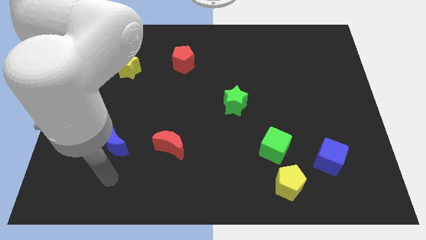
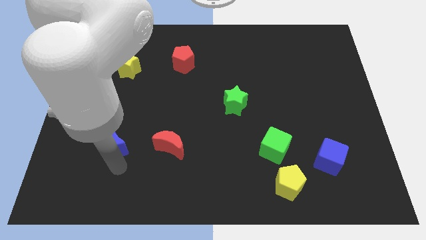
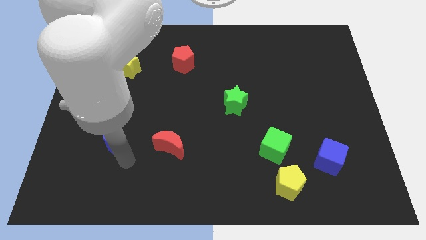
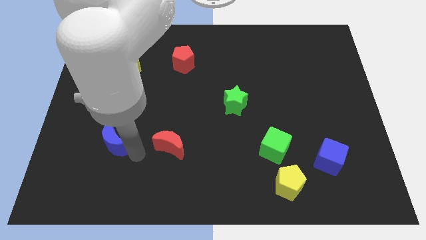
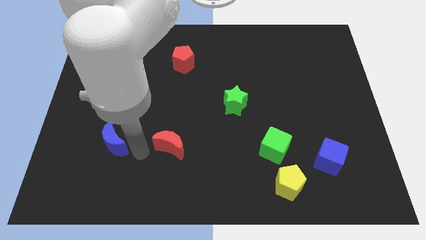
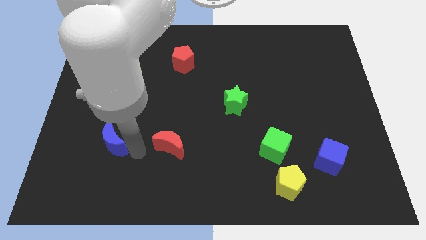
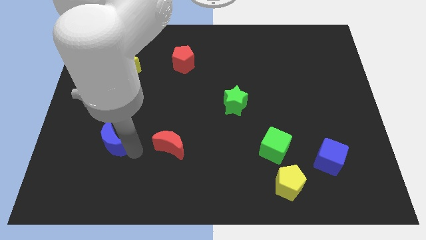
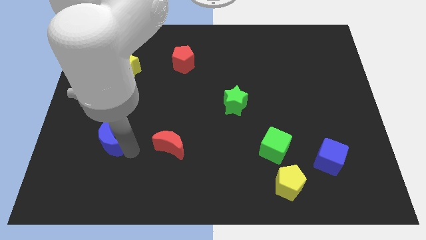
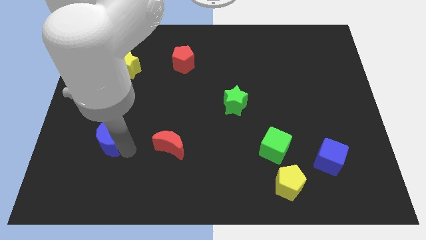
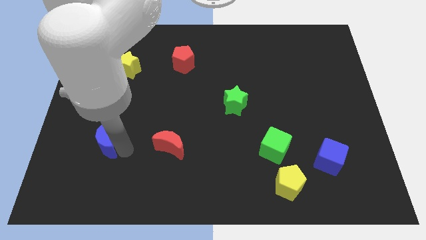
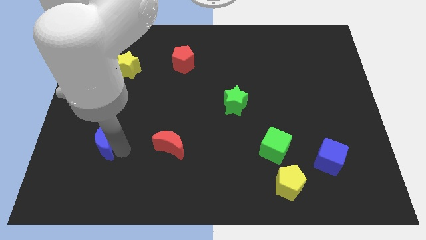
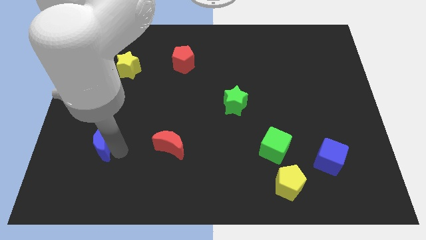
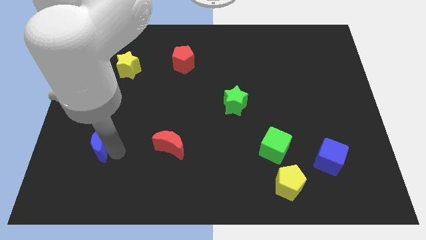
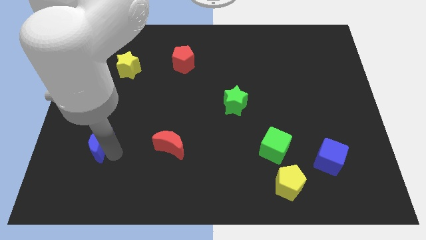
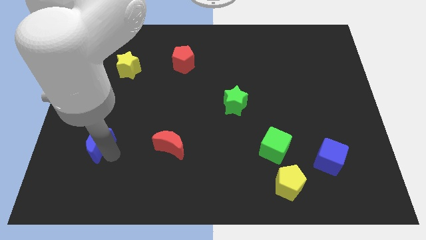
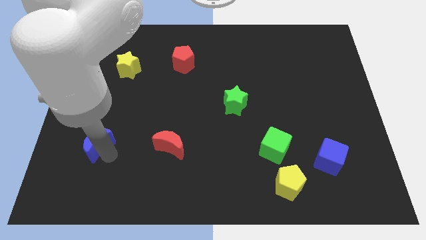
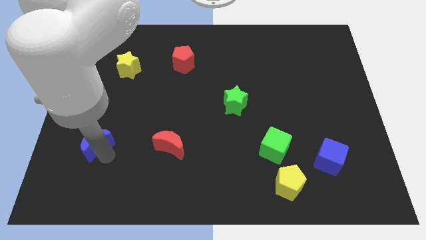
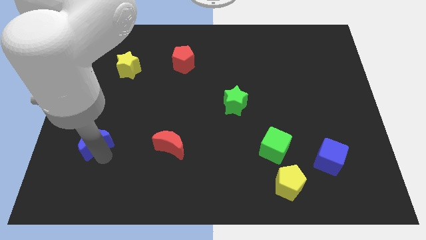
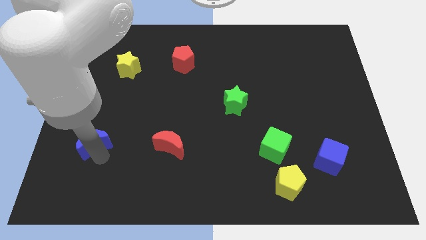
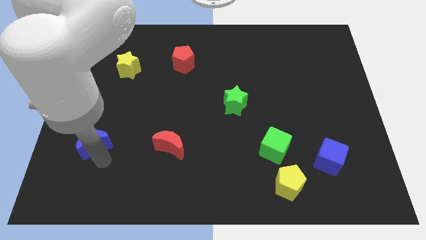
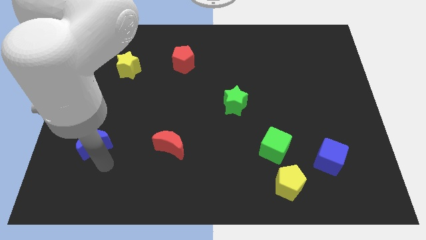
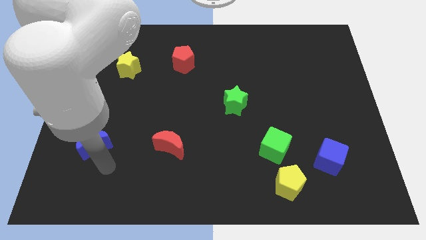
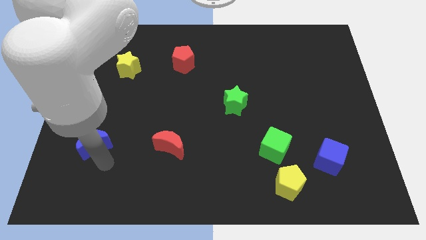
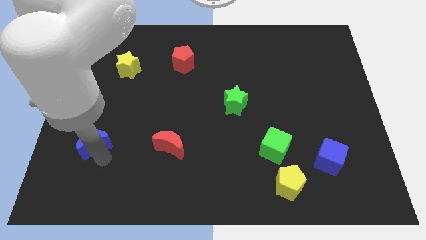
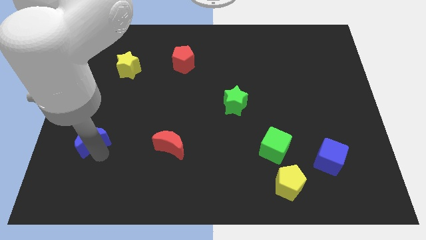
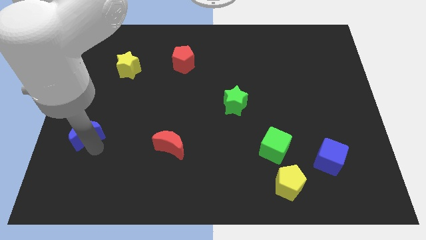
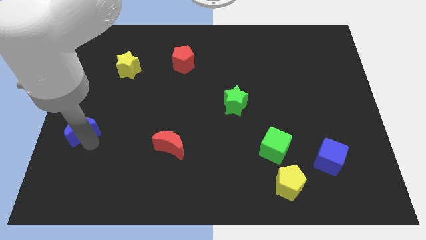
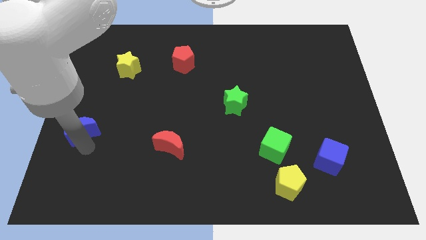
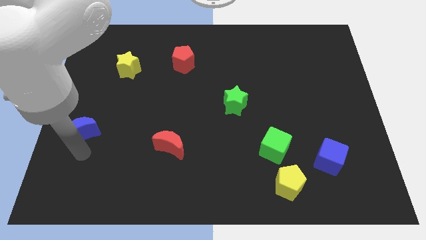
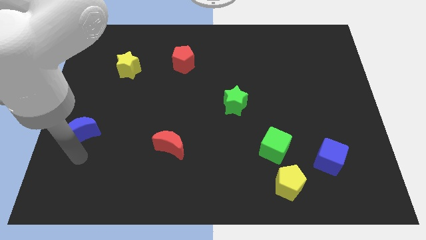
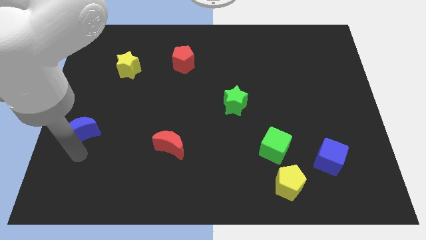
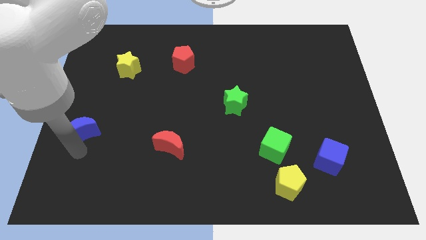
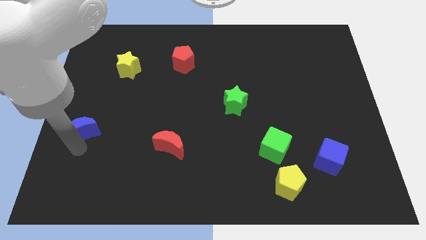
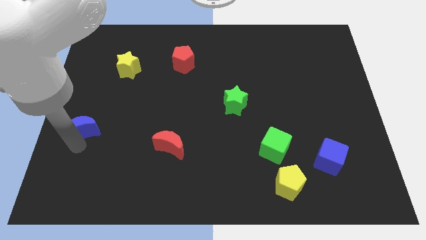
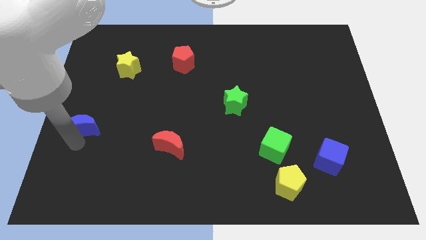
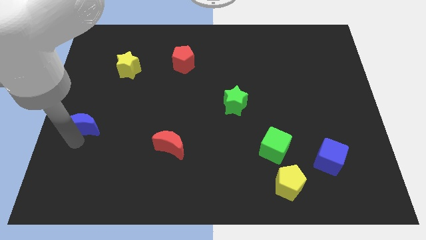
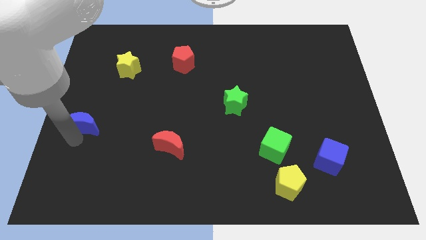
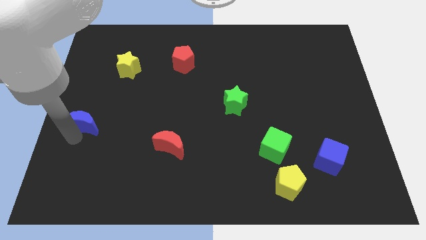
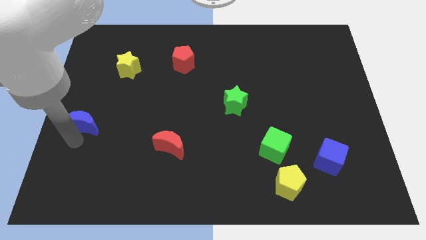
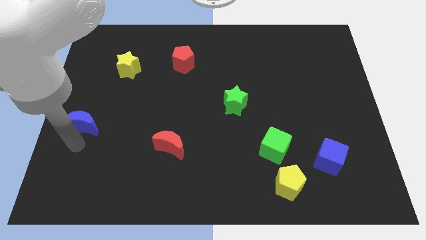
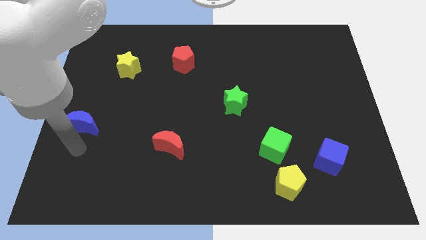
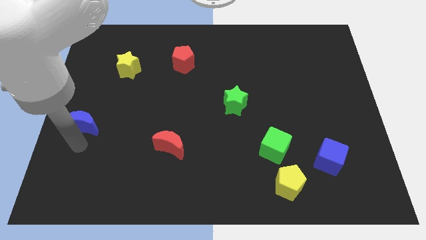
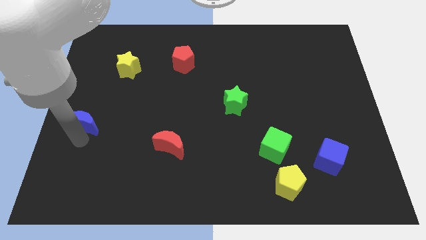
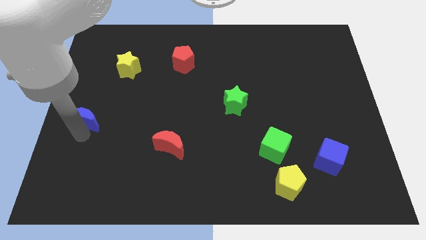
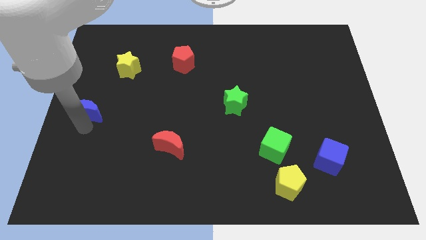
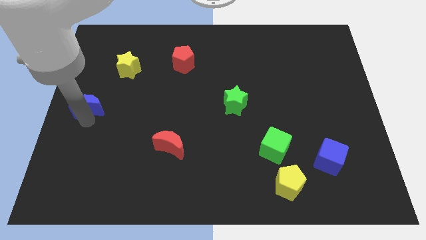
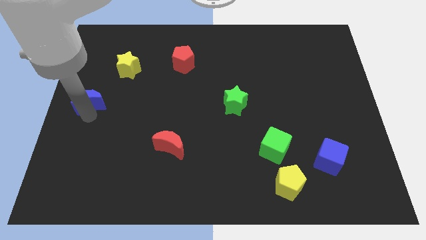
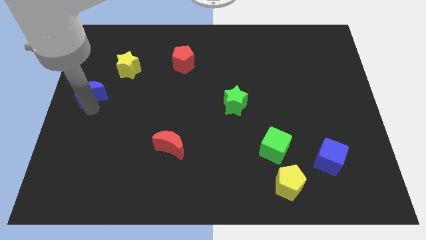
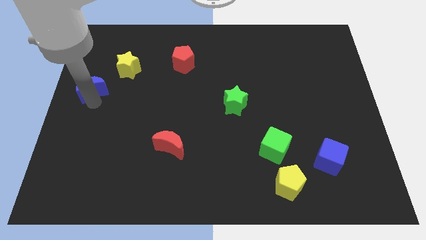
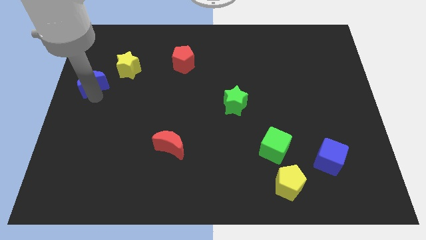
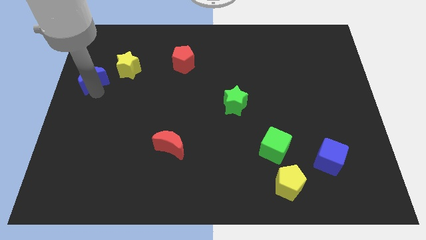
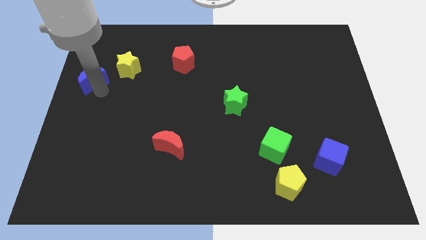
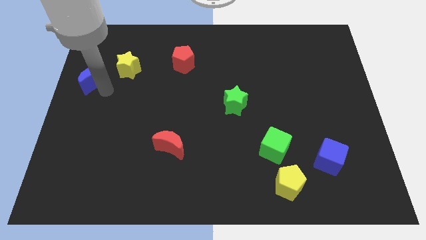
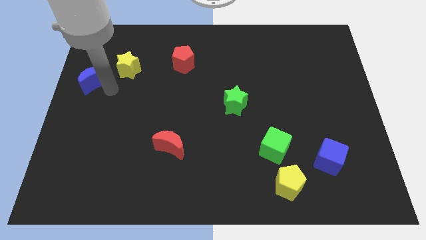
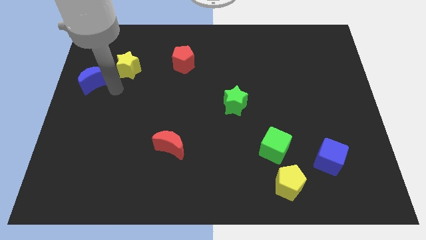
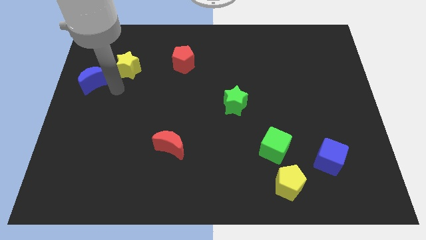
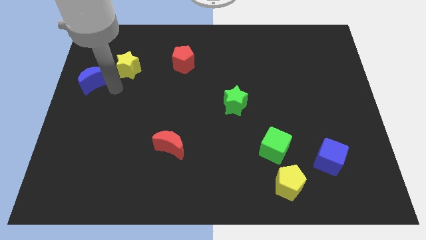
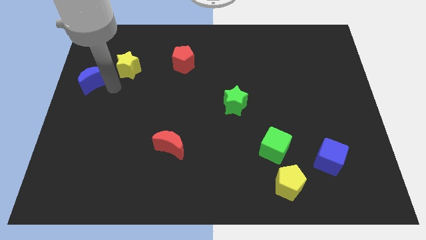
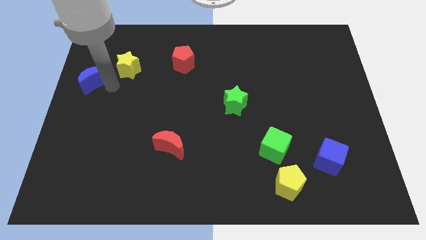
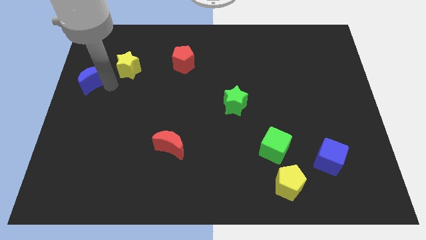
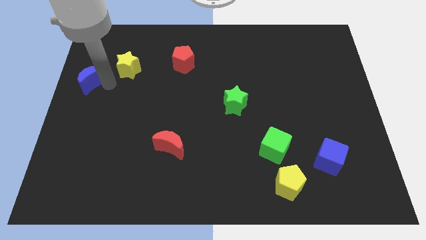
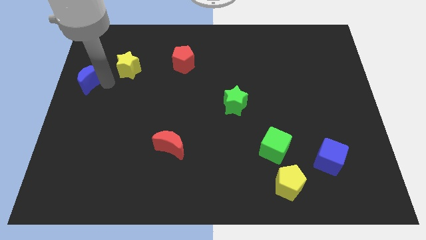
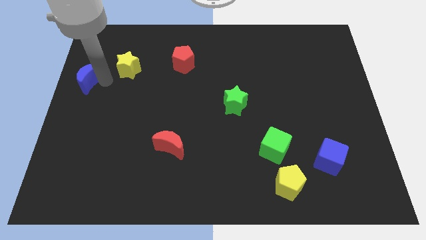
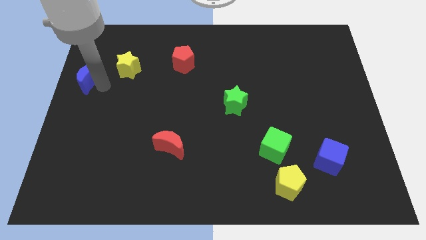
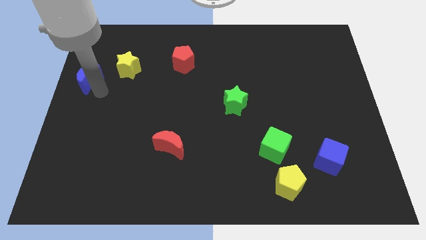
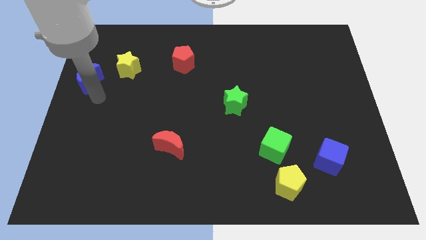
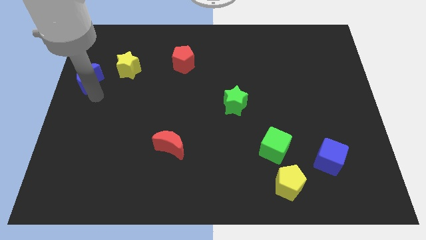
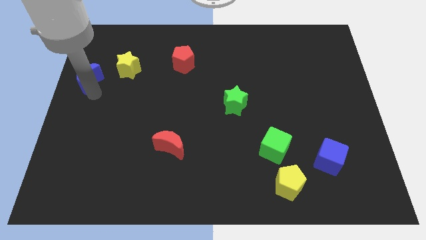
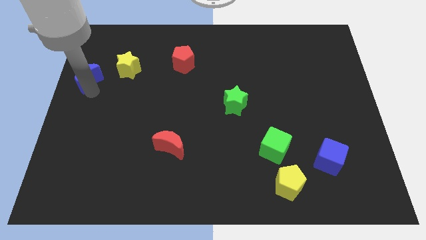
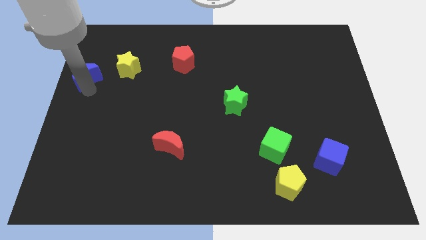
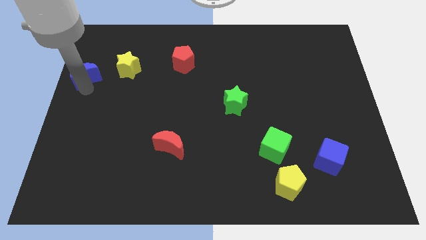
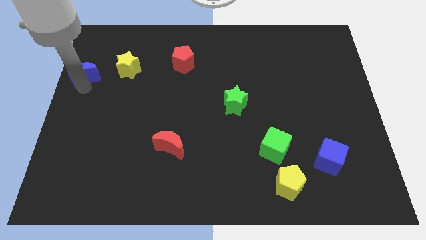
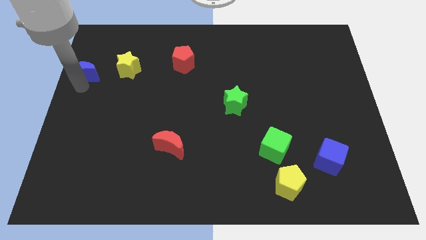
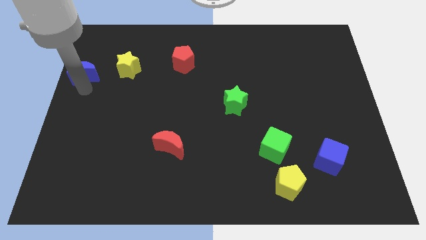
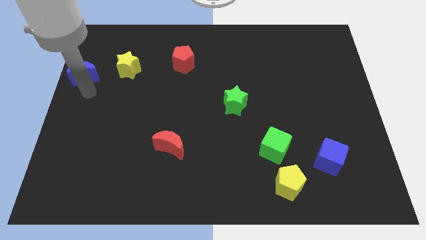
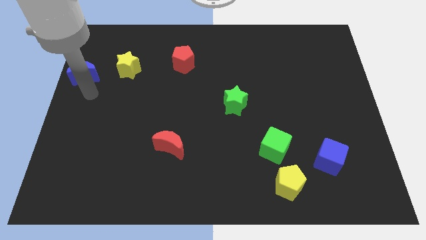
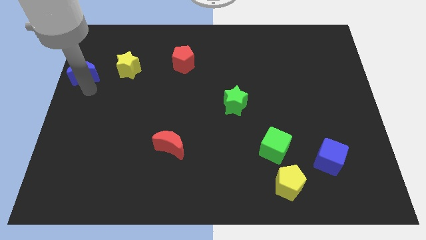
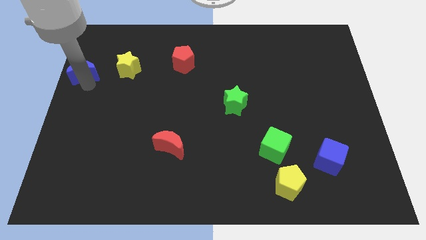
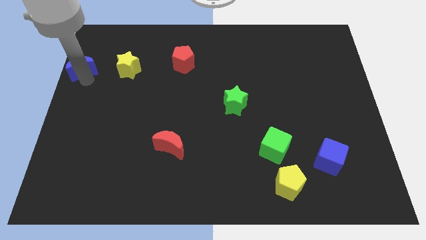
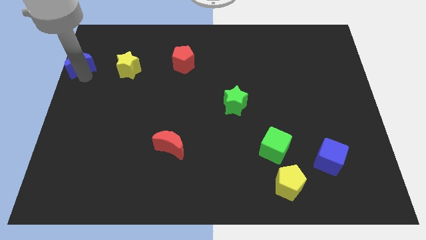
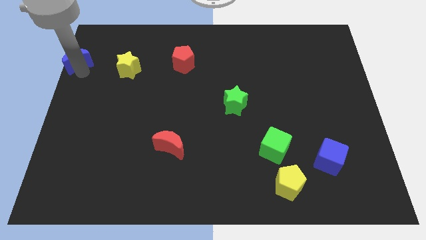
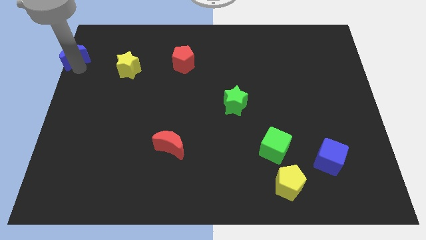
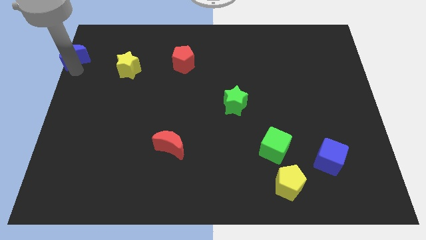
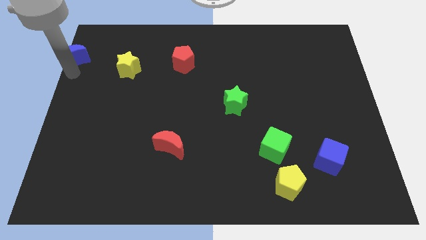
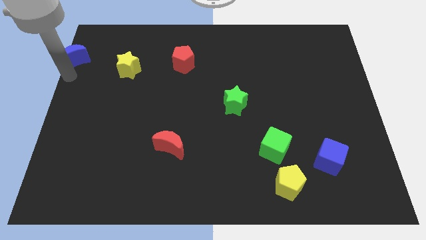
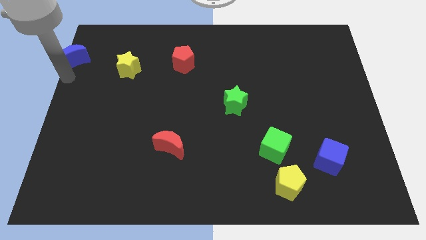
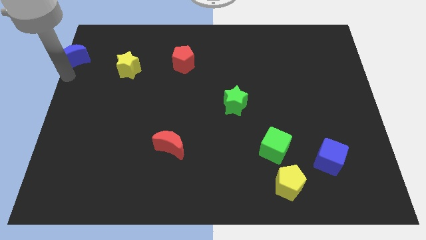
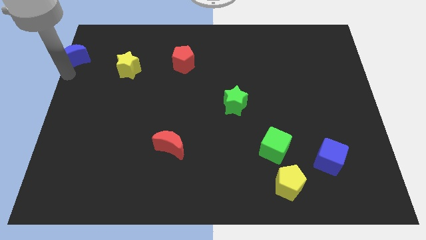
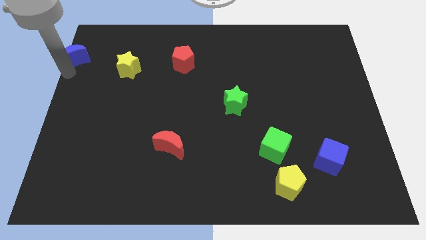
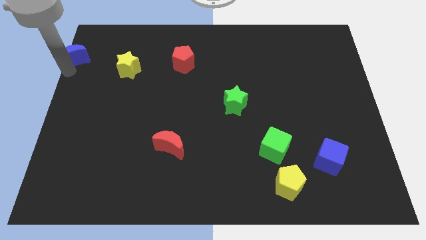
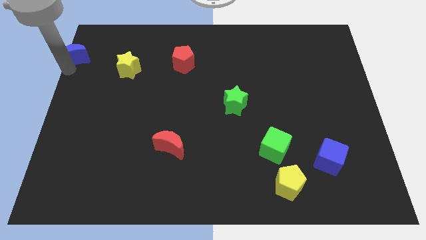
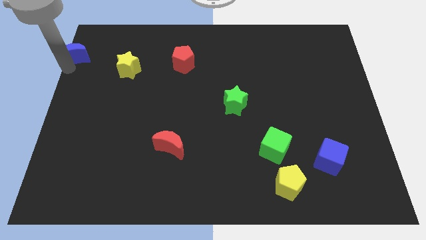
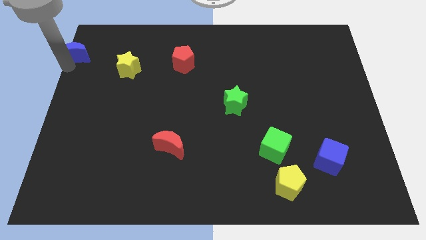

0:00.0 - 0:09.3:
move the blue moon to the top left
